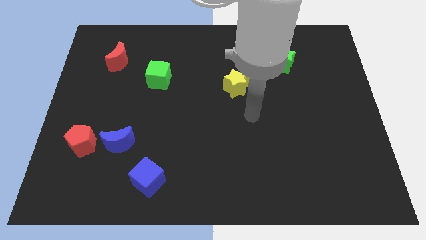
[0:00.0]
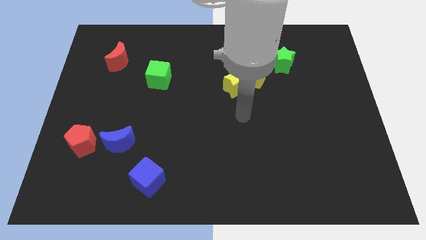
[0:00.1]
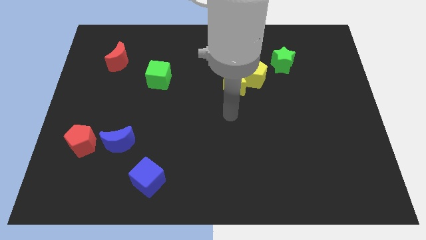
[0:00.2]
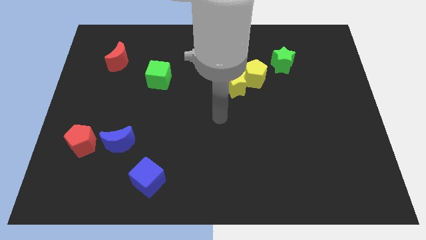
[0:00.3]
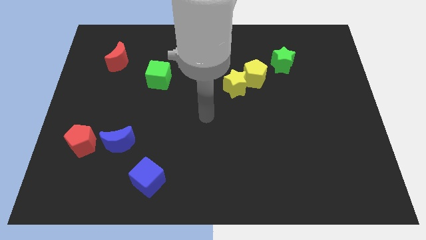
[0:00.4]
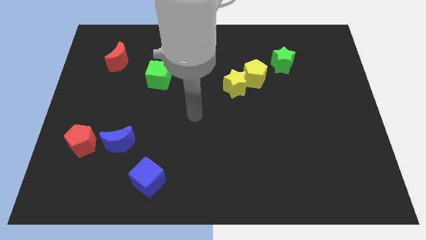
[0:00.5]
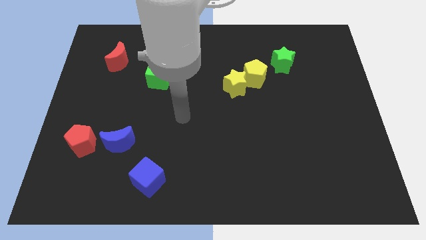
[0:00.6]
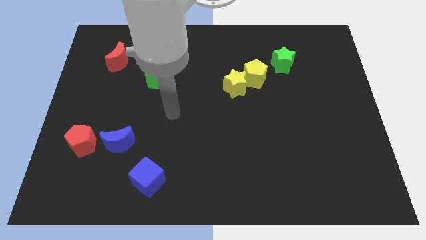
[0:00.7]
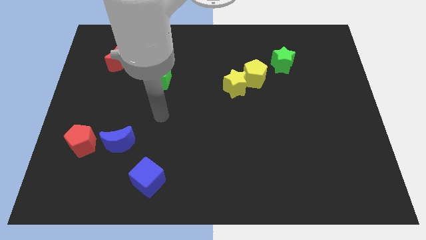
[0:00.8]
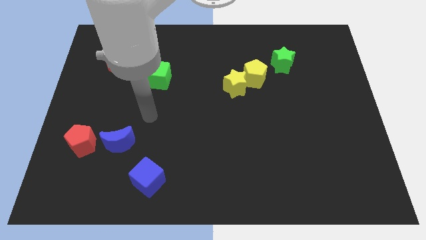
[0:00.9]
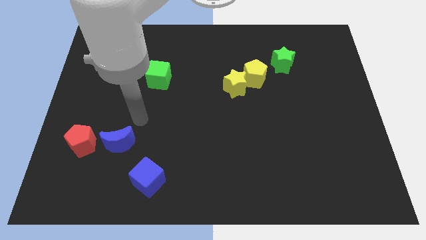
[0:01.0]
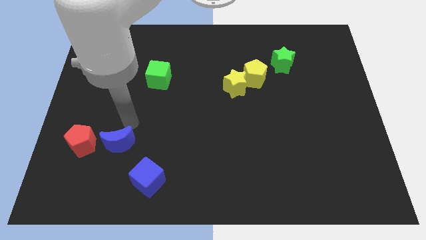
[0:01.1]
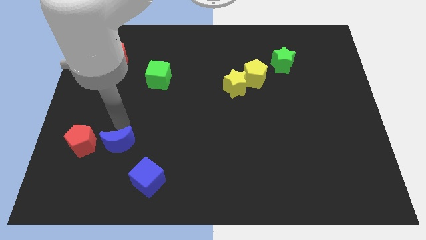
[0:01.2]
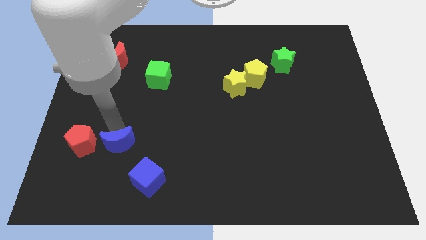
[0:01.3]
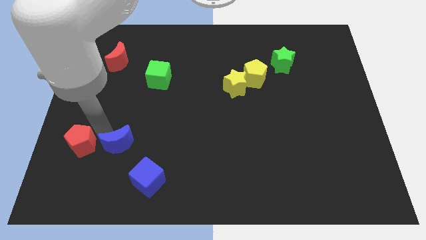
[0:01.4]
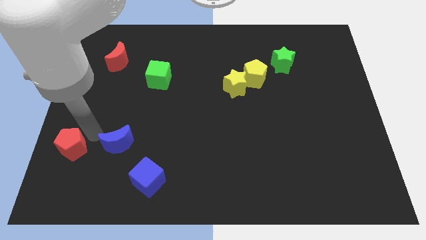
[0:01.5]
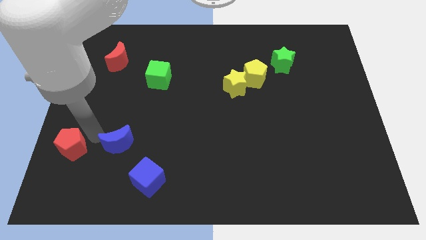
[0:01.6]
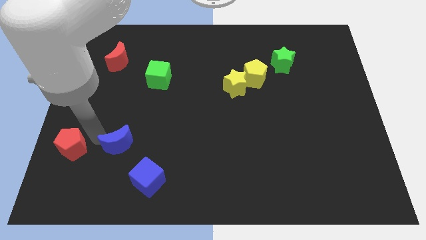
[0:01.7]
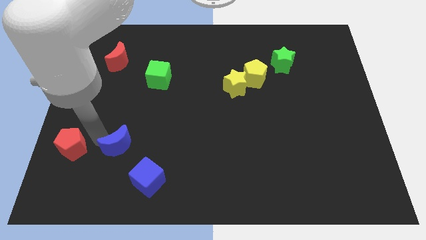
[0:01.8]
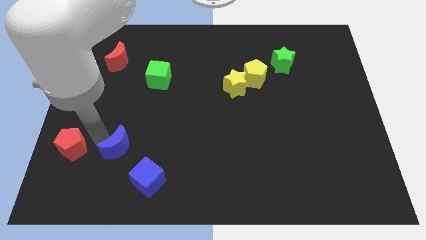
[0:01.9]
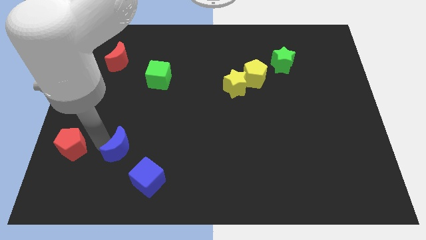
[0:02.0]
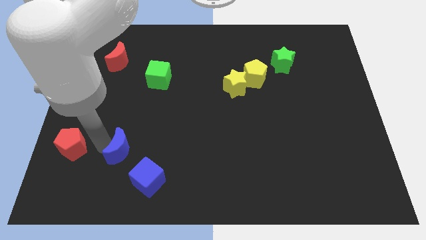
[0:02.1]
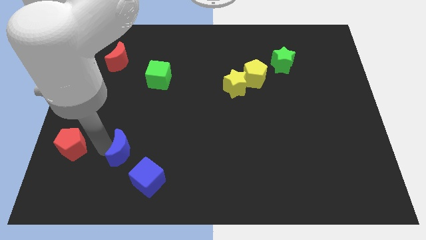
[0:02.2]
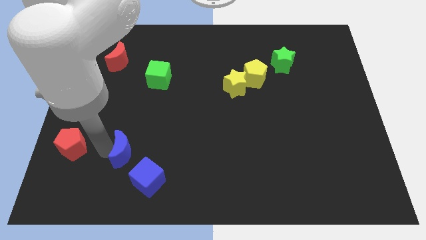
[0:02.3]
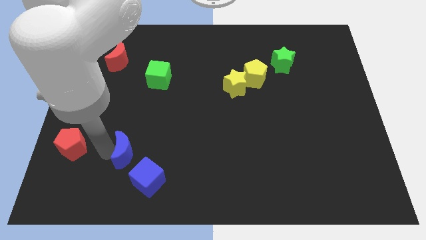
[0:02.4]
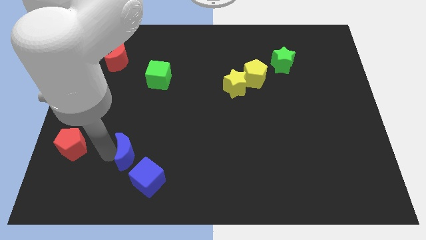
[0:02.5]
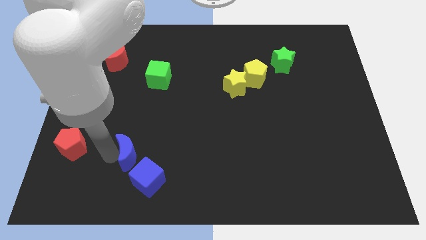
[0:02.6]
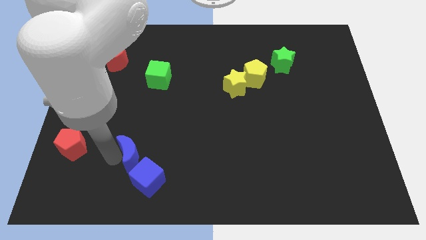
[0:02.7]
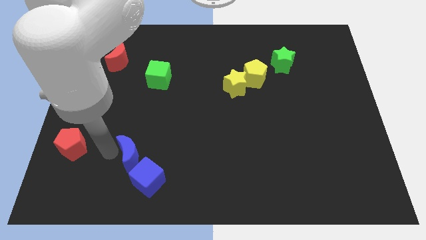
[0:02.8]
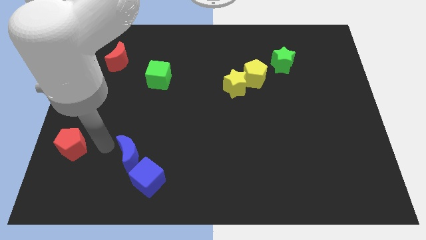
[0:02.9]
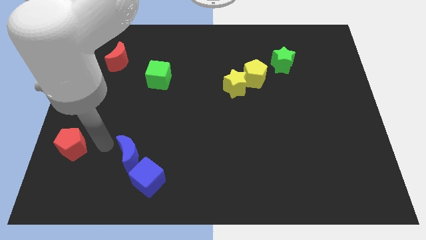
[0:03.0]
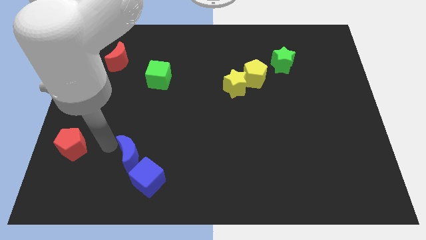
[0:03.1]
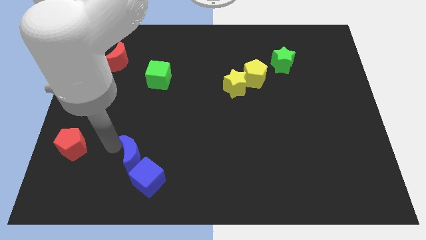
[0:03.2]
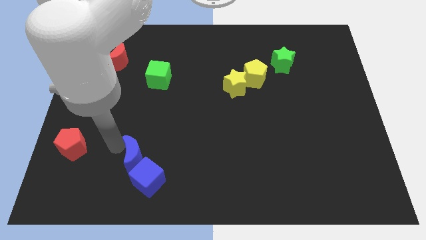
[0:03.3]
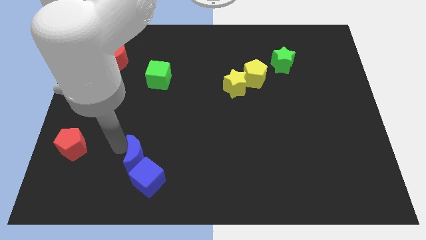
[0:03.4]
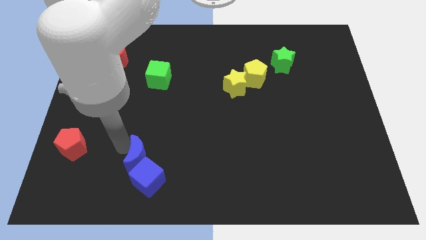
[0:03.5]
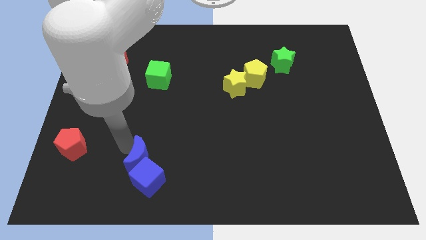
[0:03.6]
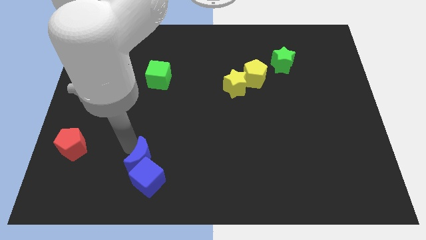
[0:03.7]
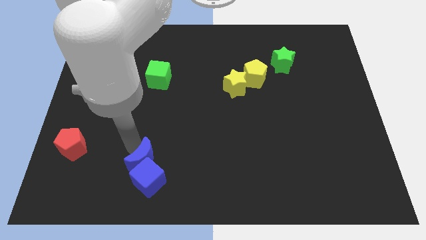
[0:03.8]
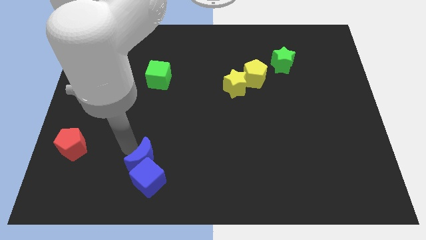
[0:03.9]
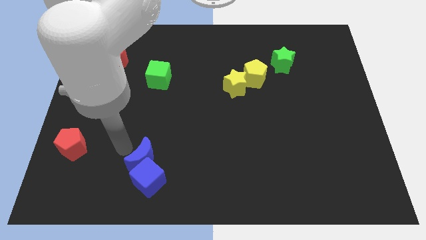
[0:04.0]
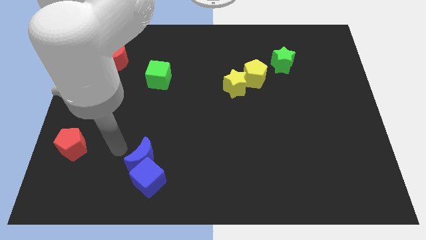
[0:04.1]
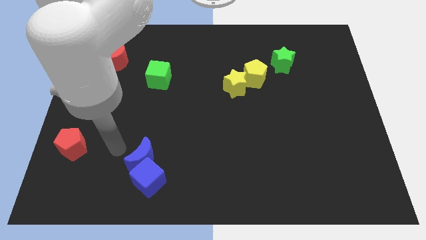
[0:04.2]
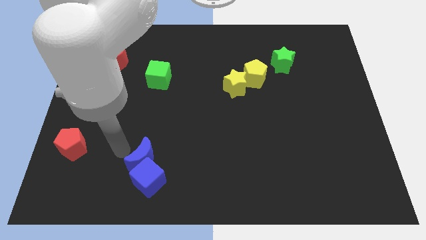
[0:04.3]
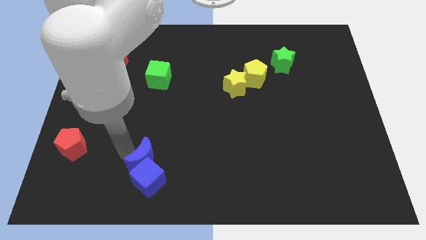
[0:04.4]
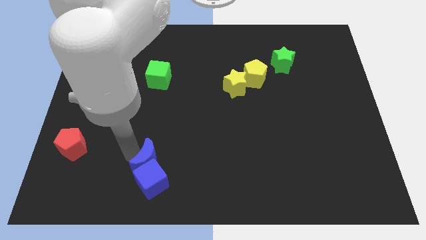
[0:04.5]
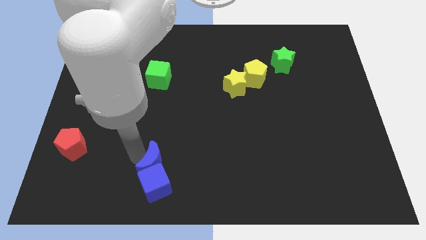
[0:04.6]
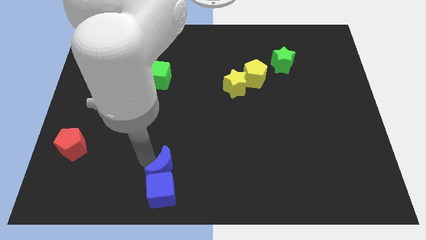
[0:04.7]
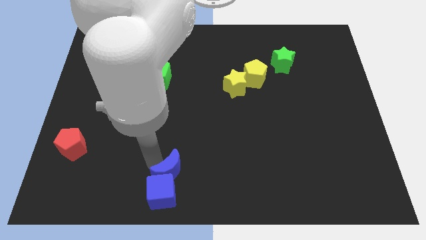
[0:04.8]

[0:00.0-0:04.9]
put the blue moon to the bottom

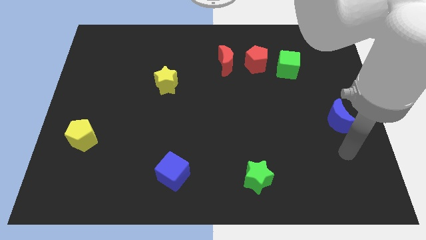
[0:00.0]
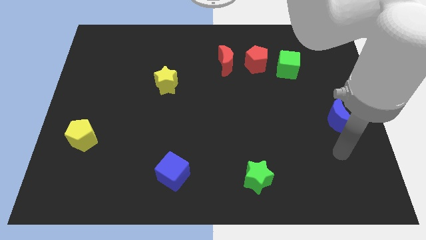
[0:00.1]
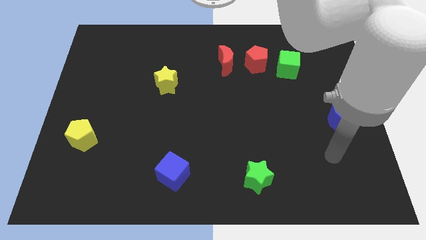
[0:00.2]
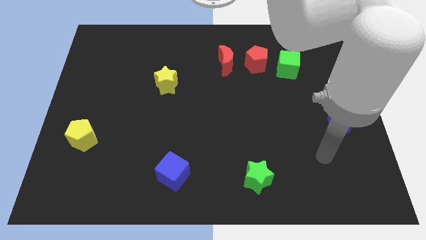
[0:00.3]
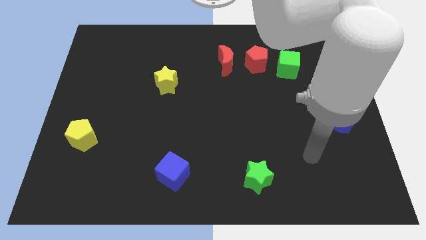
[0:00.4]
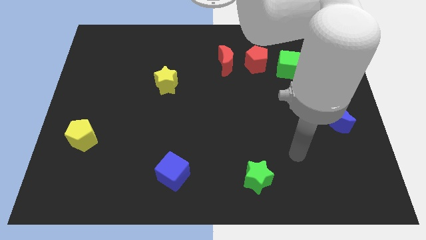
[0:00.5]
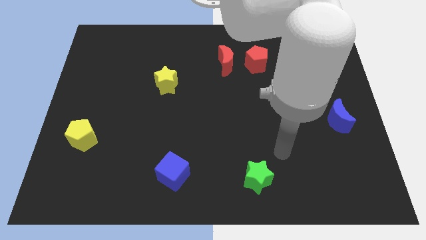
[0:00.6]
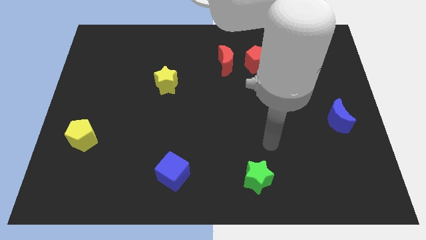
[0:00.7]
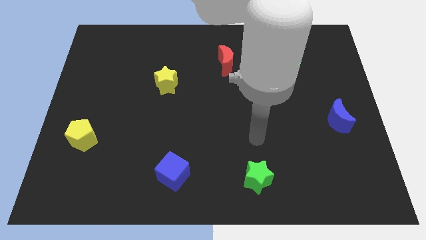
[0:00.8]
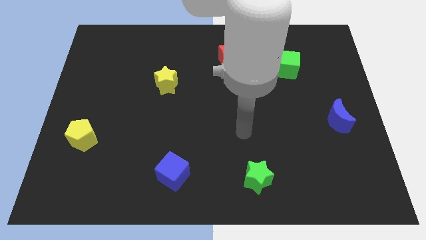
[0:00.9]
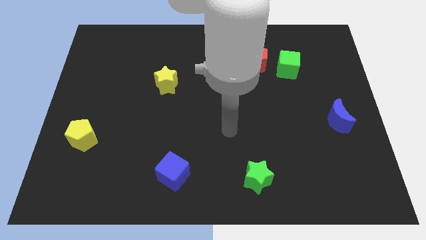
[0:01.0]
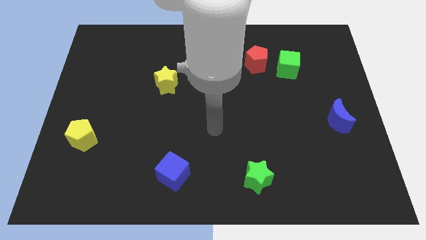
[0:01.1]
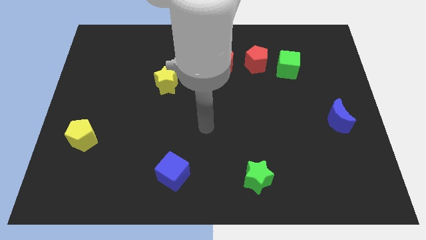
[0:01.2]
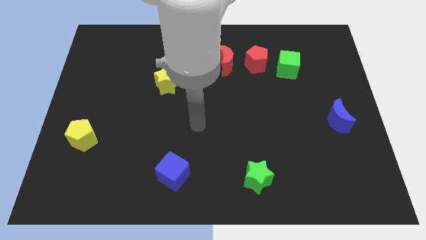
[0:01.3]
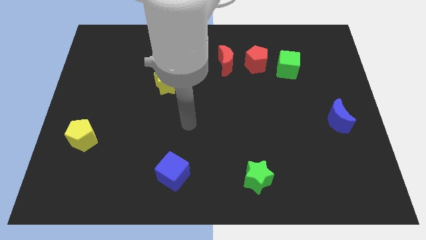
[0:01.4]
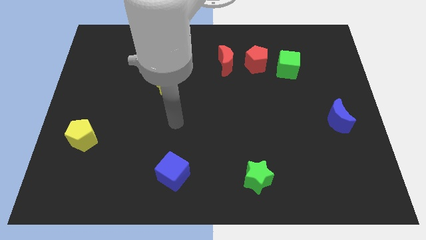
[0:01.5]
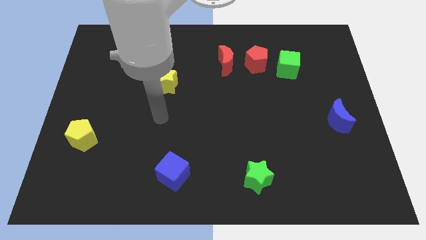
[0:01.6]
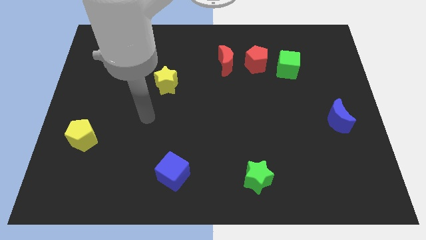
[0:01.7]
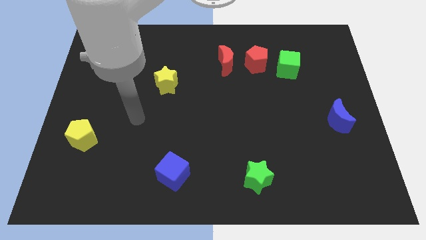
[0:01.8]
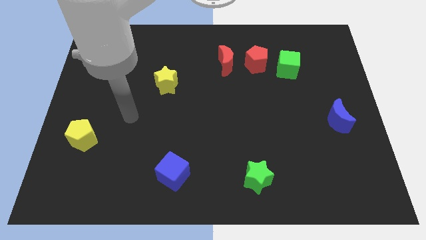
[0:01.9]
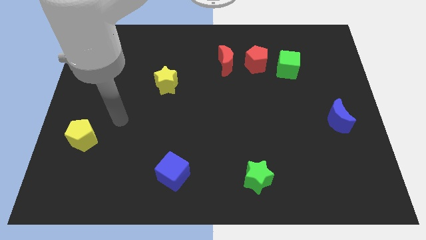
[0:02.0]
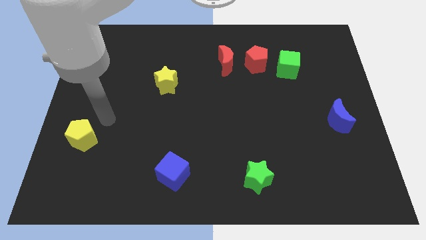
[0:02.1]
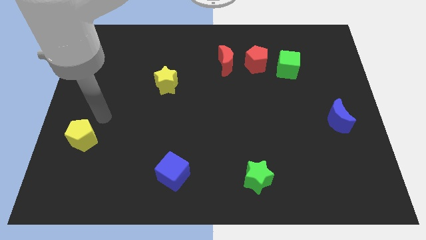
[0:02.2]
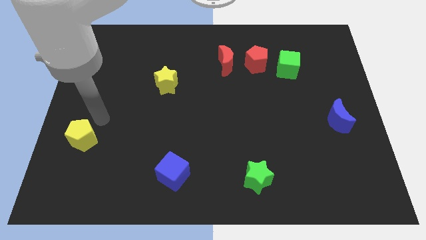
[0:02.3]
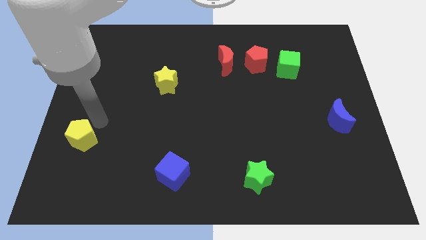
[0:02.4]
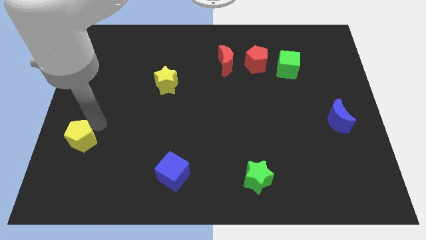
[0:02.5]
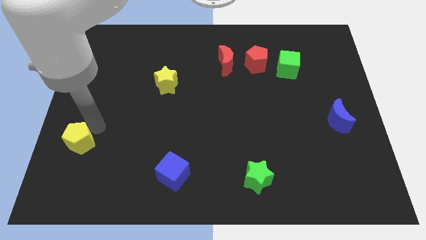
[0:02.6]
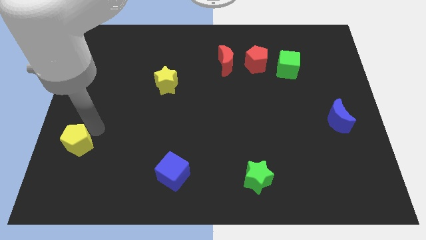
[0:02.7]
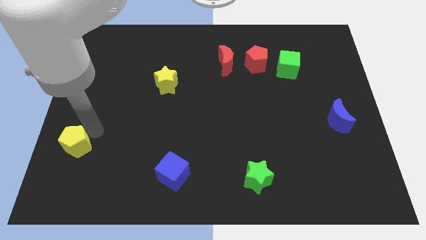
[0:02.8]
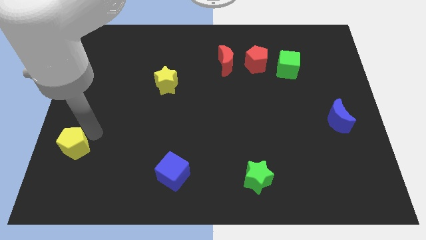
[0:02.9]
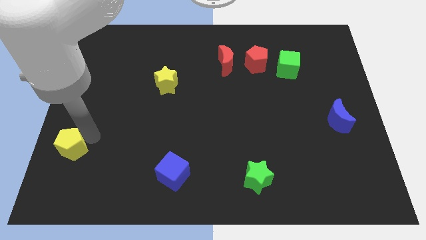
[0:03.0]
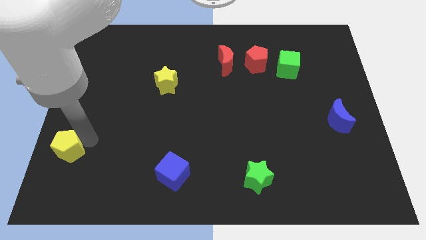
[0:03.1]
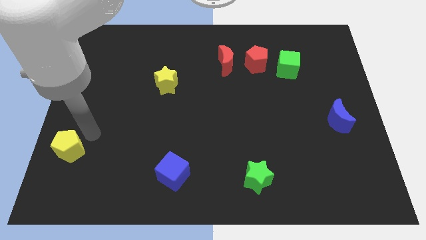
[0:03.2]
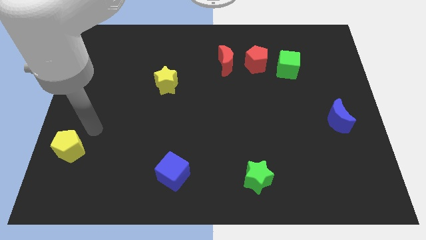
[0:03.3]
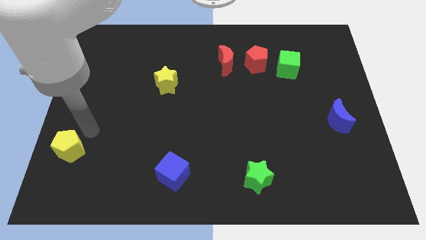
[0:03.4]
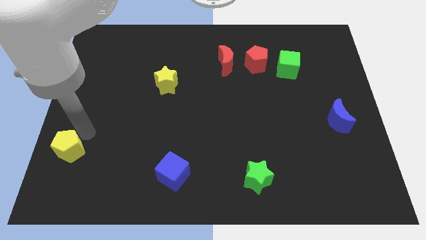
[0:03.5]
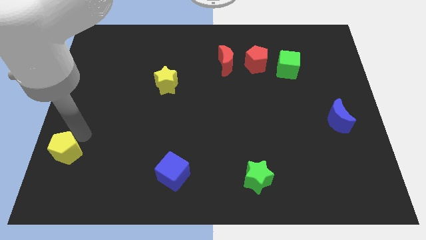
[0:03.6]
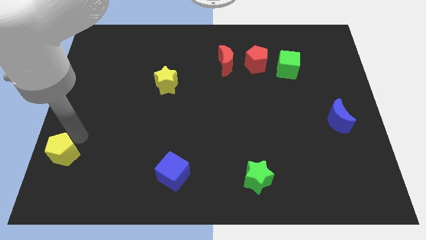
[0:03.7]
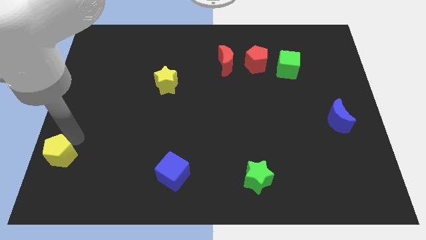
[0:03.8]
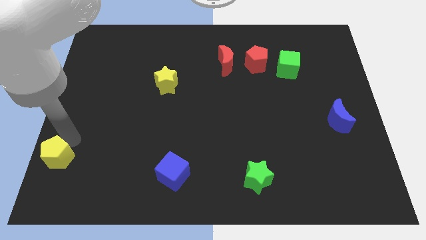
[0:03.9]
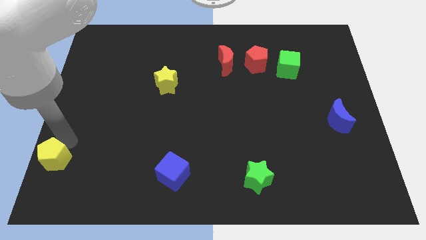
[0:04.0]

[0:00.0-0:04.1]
slide the yellow pentagon to the bottom left corner
